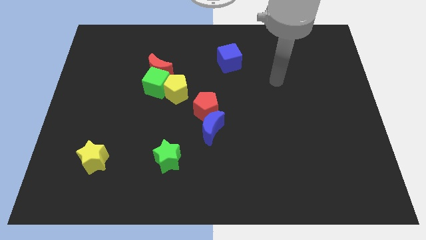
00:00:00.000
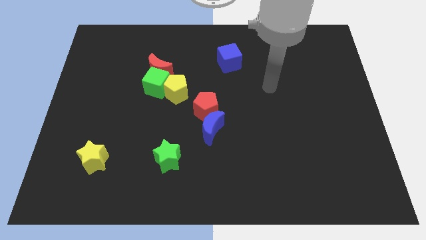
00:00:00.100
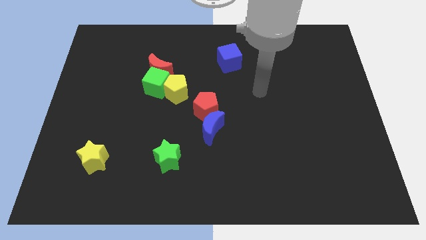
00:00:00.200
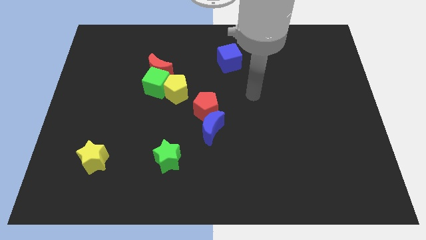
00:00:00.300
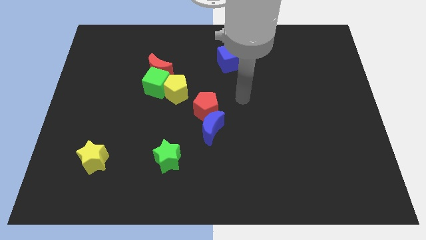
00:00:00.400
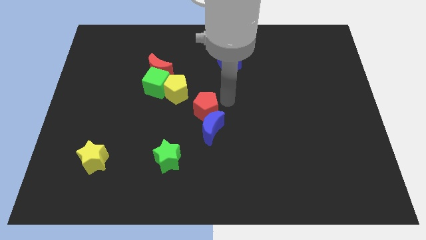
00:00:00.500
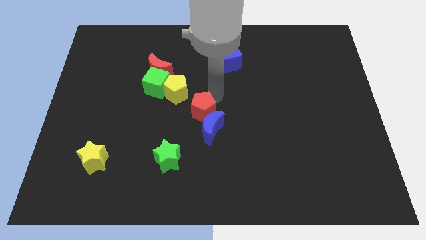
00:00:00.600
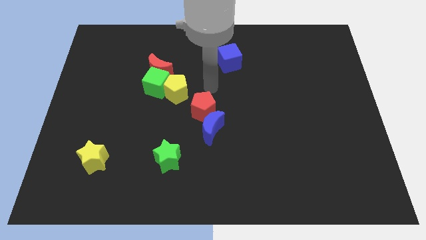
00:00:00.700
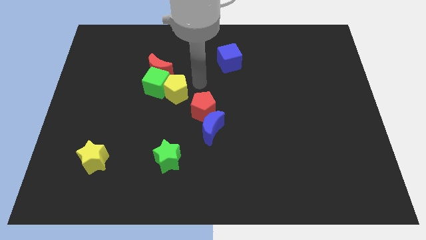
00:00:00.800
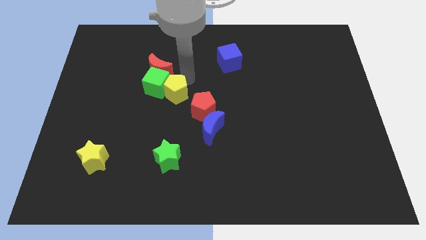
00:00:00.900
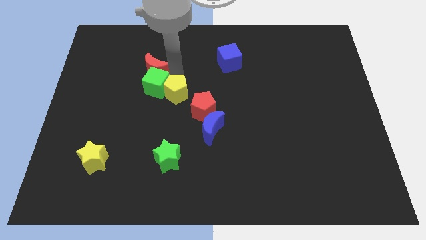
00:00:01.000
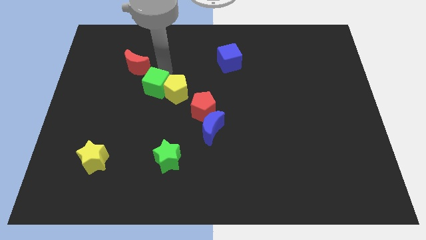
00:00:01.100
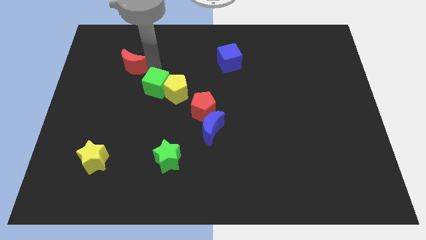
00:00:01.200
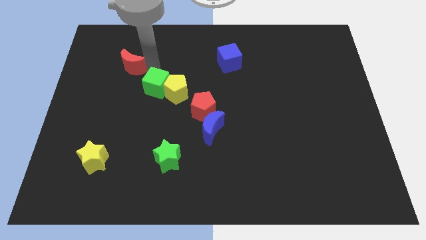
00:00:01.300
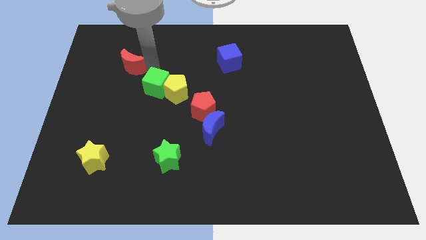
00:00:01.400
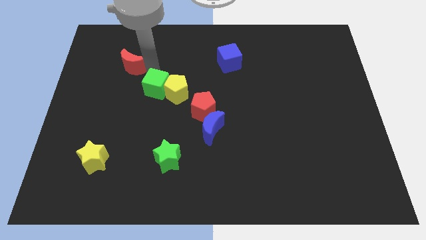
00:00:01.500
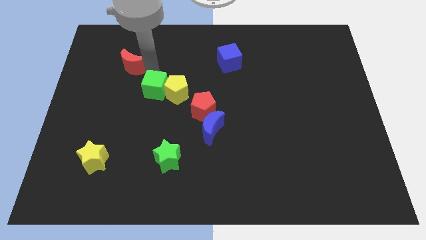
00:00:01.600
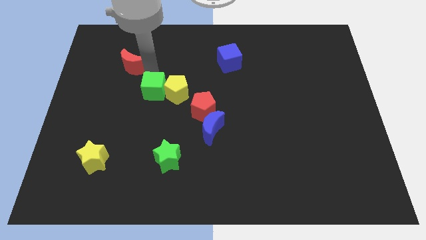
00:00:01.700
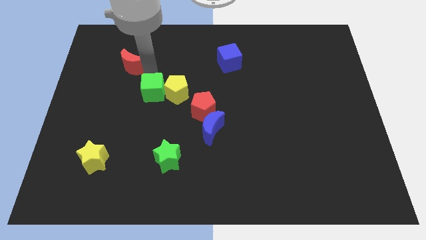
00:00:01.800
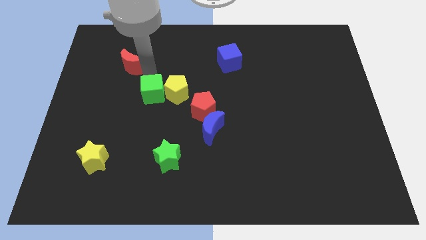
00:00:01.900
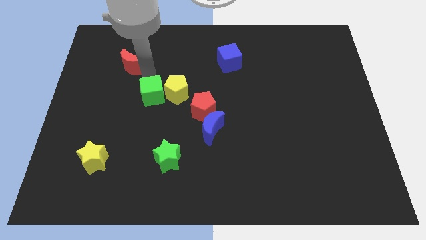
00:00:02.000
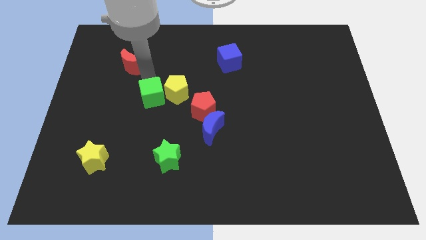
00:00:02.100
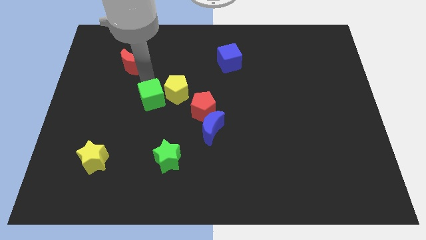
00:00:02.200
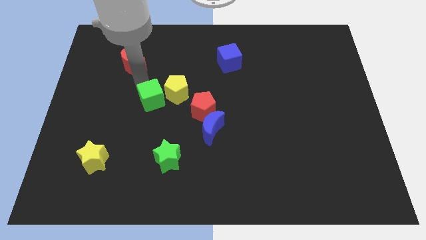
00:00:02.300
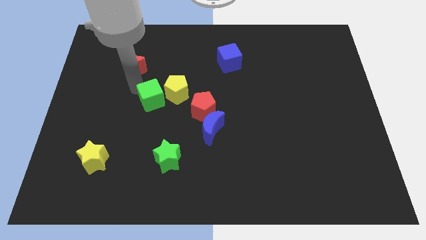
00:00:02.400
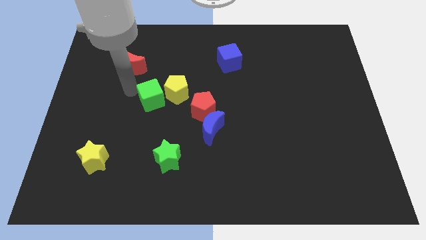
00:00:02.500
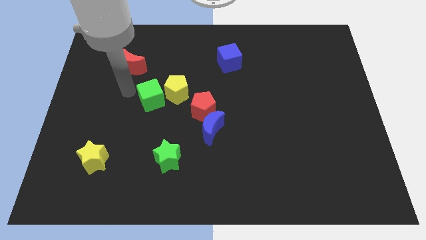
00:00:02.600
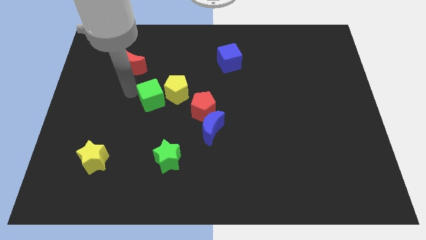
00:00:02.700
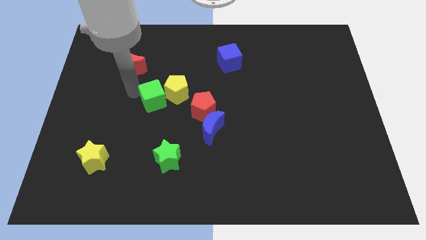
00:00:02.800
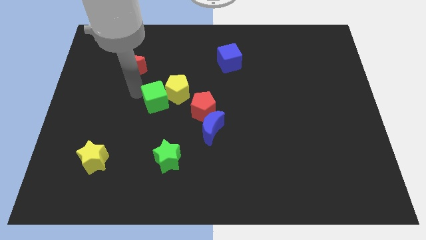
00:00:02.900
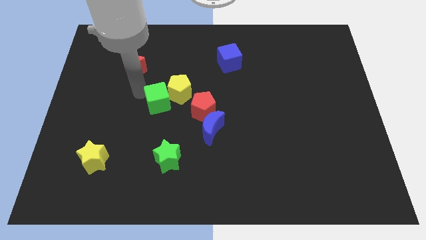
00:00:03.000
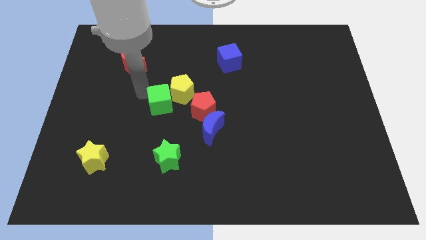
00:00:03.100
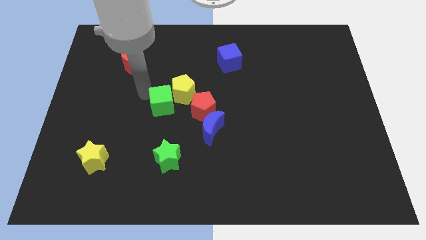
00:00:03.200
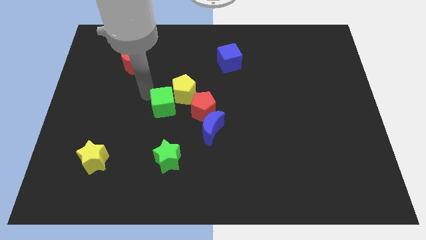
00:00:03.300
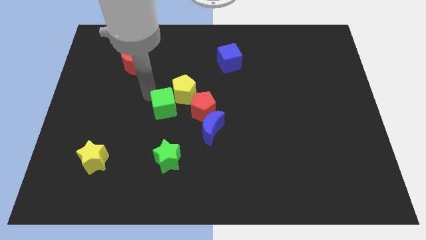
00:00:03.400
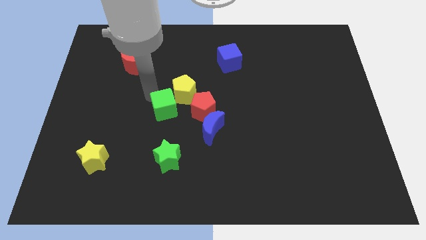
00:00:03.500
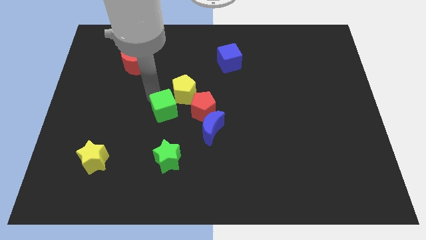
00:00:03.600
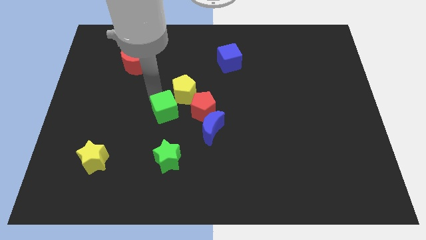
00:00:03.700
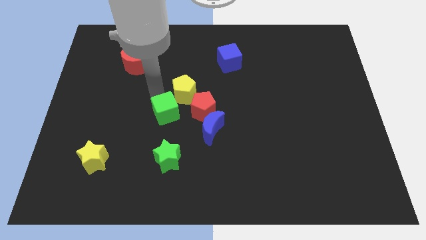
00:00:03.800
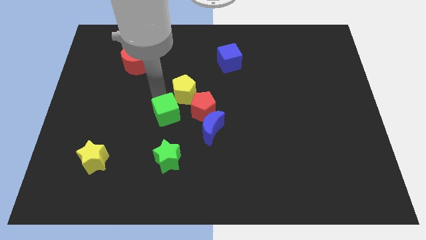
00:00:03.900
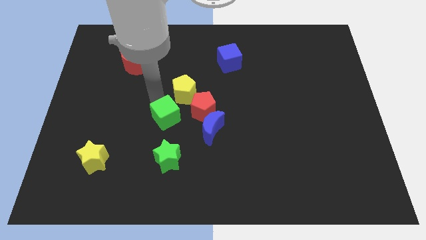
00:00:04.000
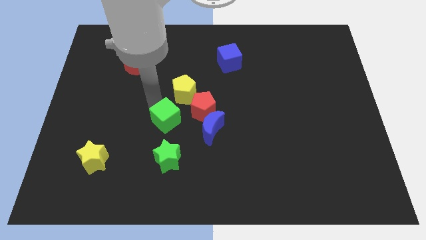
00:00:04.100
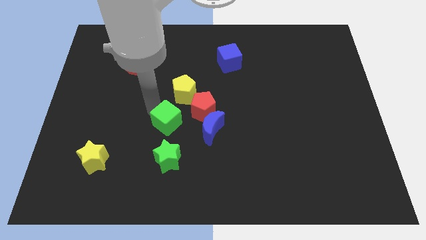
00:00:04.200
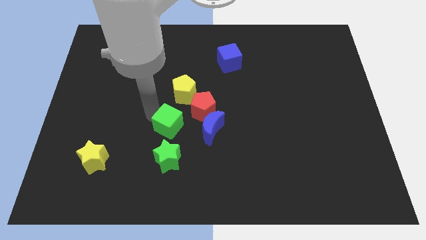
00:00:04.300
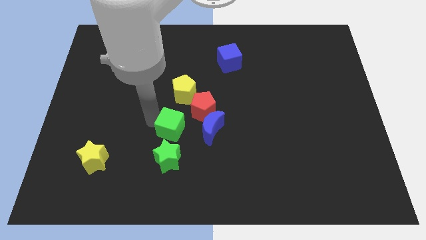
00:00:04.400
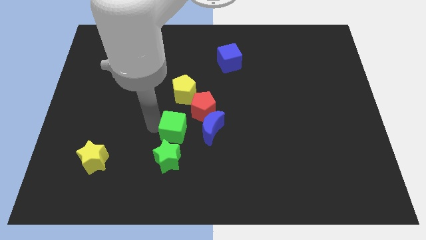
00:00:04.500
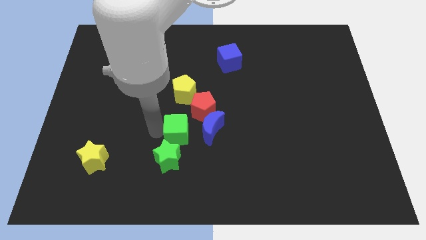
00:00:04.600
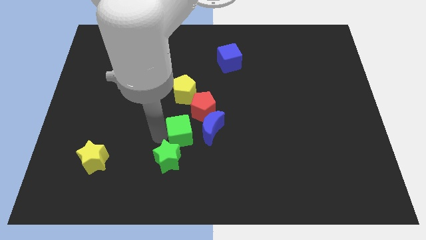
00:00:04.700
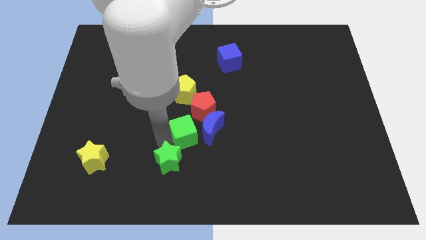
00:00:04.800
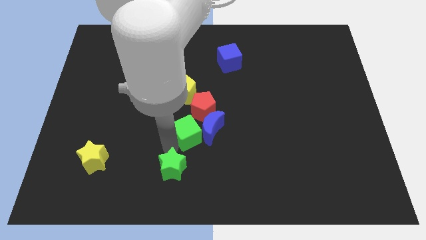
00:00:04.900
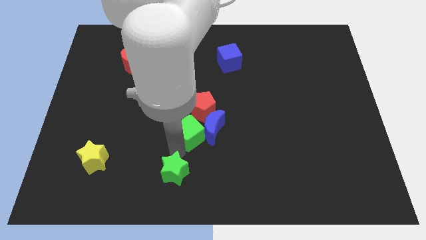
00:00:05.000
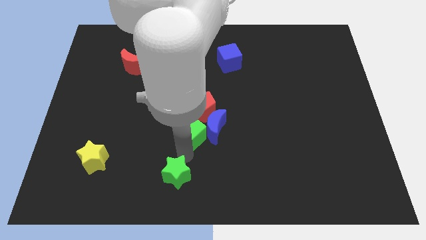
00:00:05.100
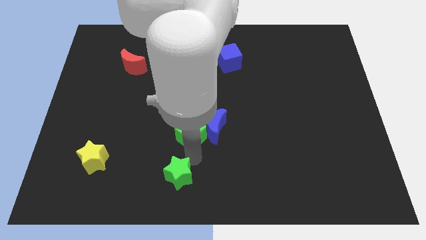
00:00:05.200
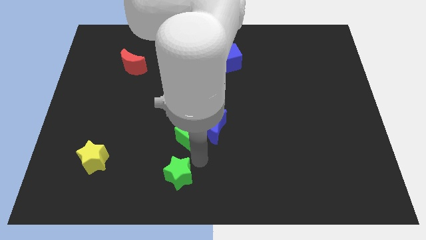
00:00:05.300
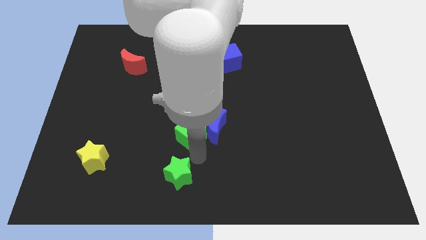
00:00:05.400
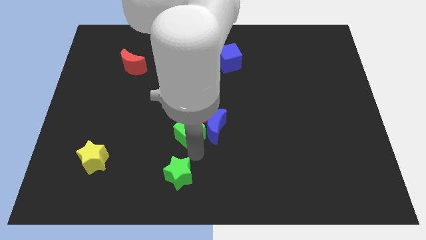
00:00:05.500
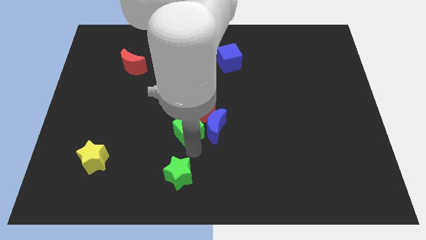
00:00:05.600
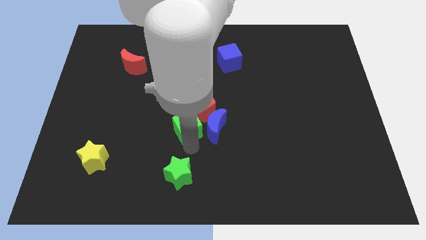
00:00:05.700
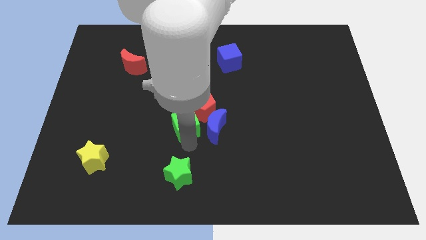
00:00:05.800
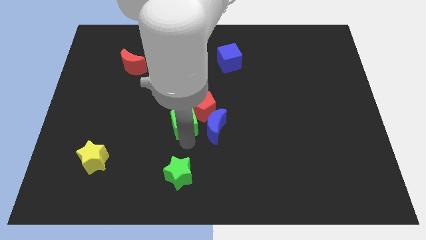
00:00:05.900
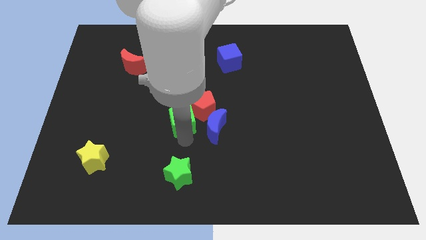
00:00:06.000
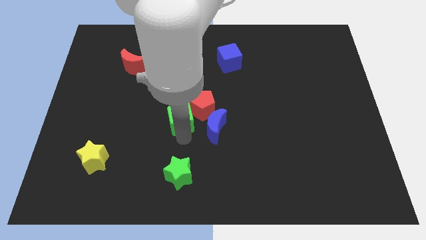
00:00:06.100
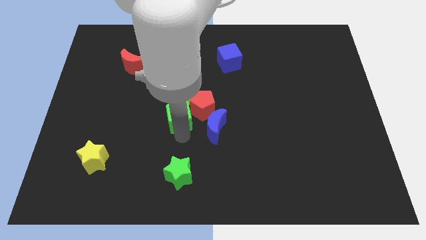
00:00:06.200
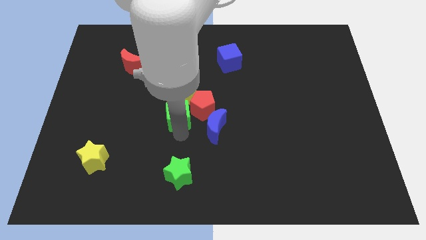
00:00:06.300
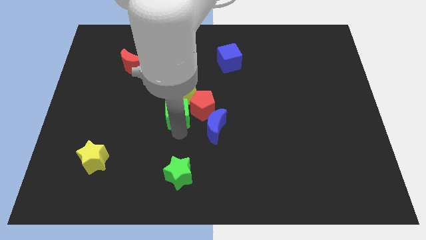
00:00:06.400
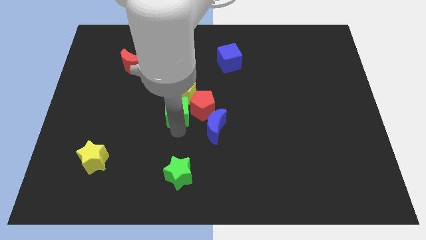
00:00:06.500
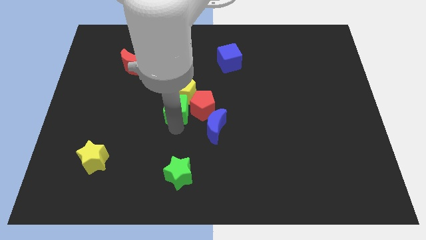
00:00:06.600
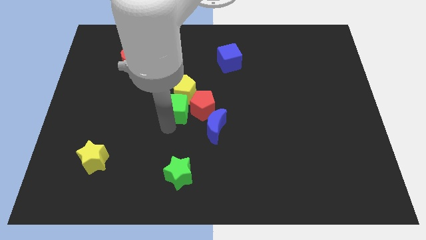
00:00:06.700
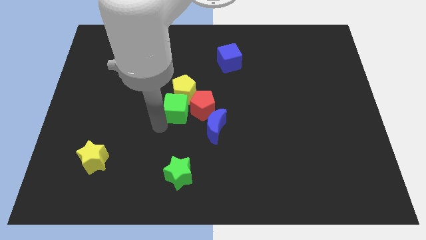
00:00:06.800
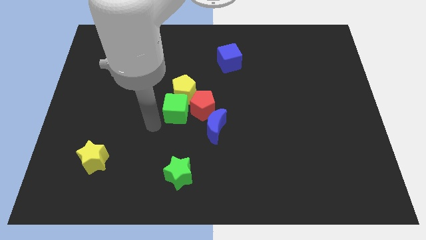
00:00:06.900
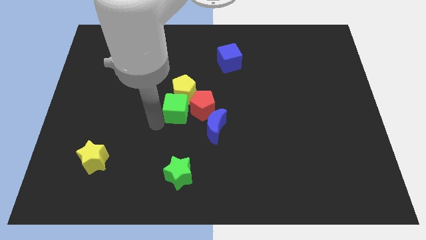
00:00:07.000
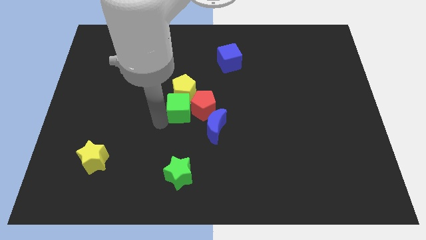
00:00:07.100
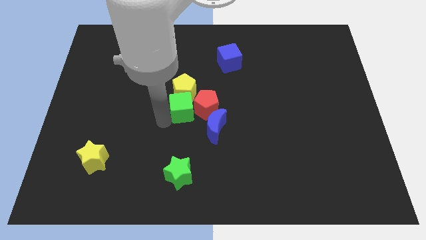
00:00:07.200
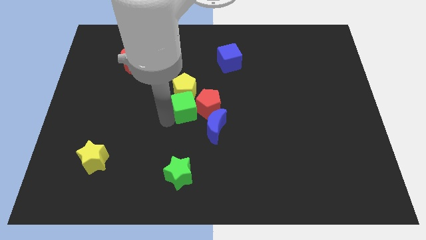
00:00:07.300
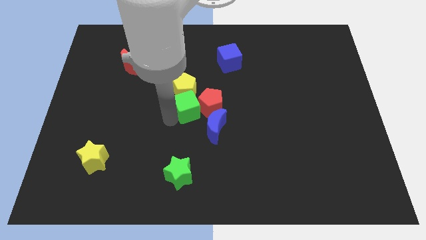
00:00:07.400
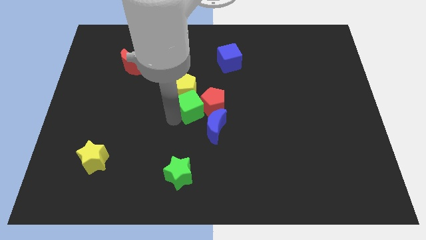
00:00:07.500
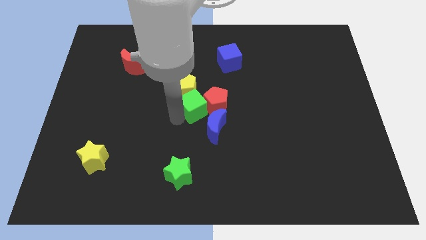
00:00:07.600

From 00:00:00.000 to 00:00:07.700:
slightly push the green cube to the right
